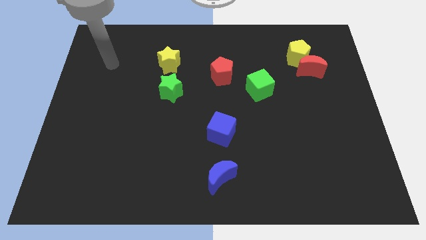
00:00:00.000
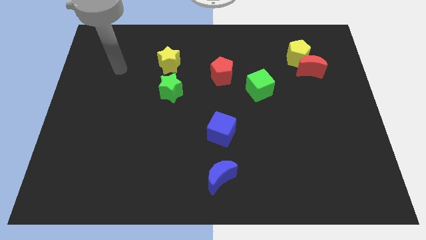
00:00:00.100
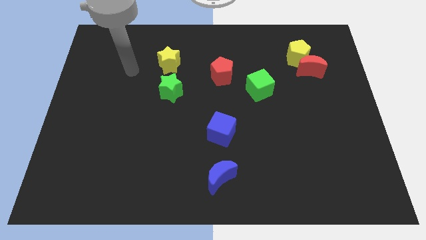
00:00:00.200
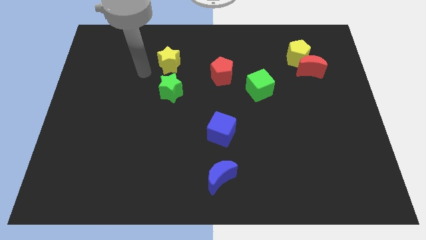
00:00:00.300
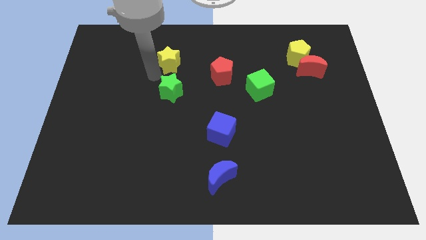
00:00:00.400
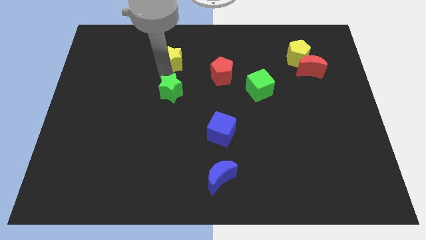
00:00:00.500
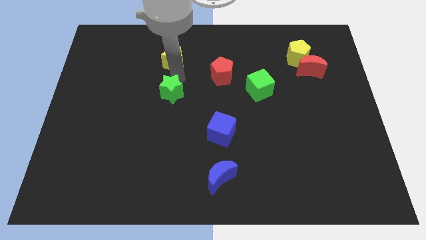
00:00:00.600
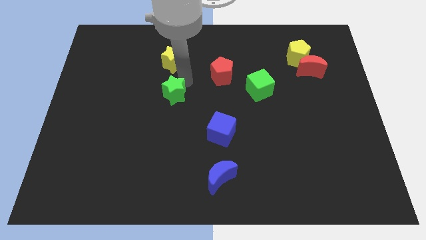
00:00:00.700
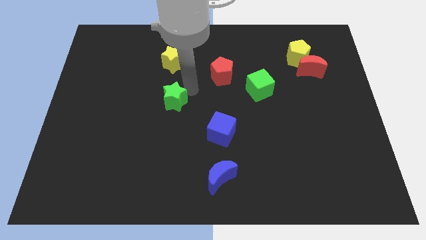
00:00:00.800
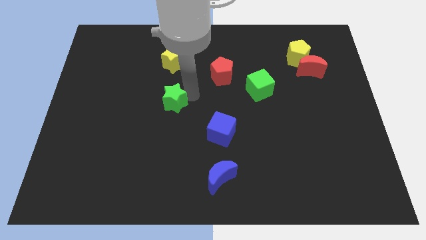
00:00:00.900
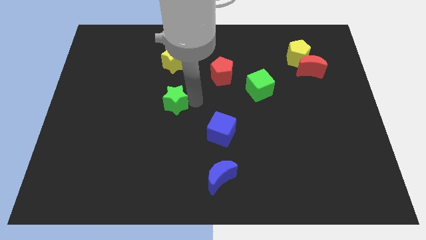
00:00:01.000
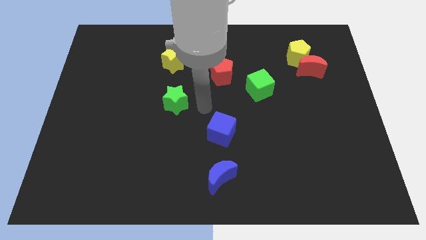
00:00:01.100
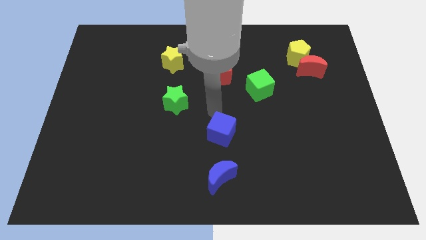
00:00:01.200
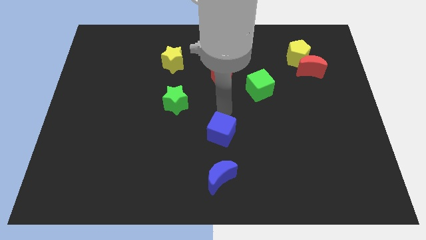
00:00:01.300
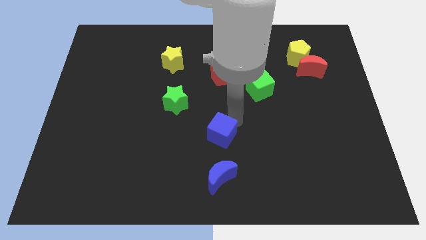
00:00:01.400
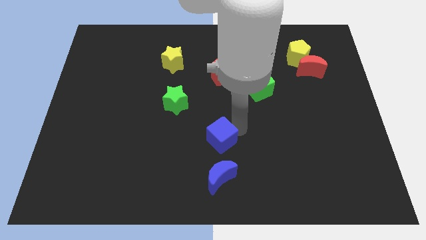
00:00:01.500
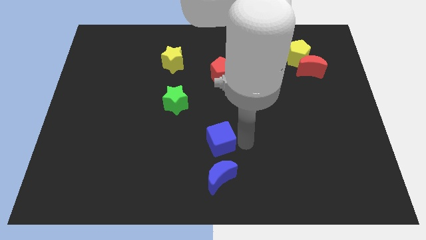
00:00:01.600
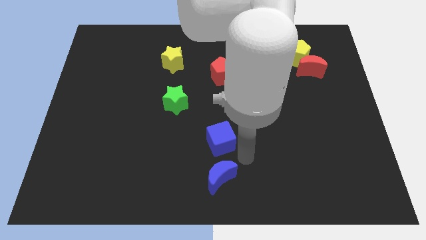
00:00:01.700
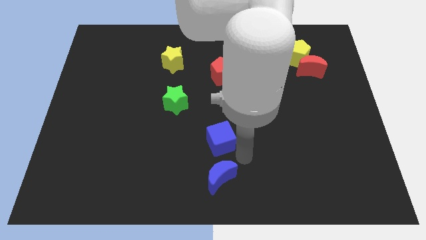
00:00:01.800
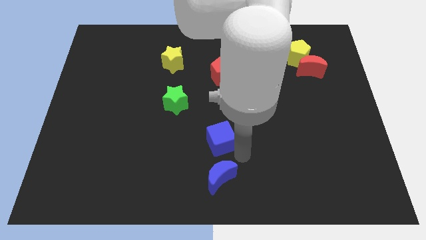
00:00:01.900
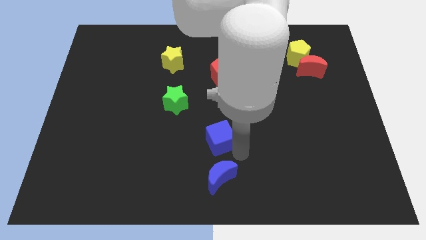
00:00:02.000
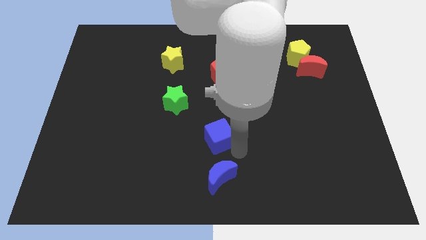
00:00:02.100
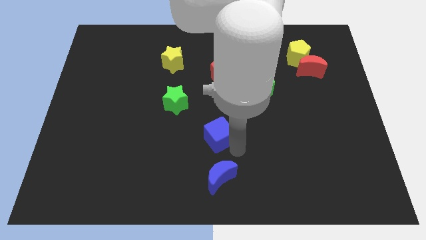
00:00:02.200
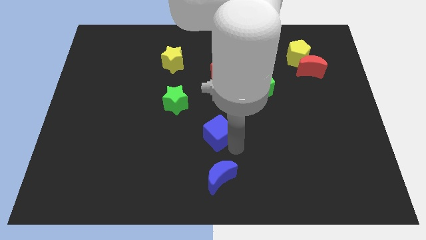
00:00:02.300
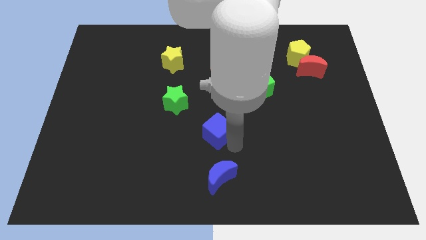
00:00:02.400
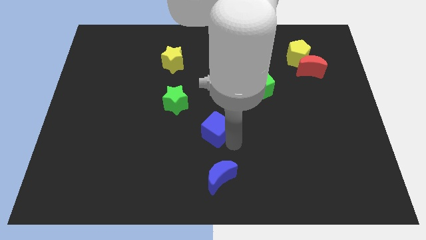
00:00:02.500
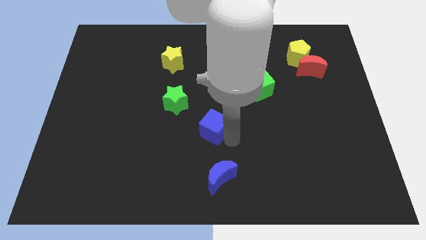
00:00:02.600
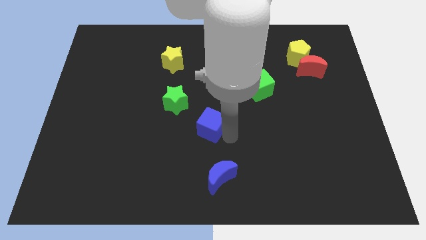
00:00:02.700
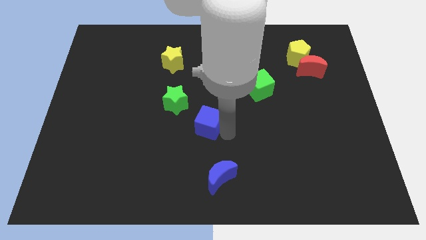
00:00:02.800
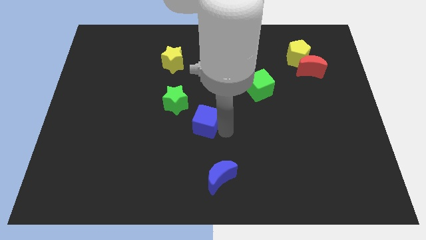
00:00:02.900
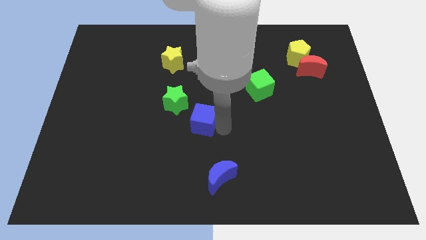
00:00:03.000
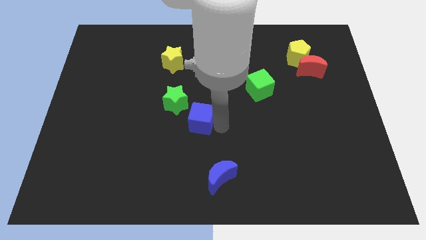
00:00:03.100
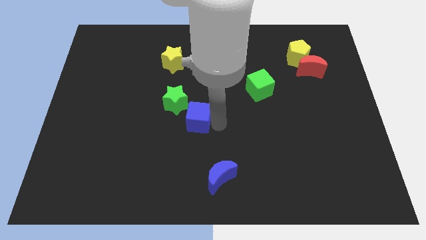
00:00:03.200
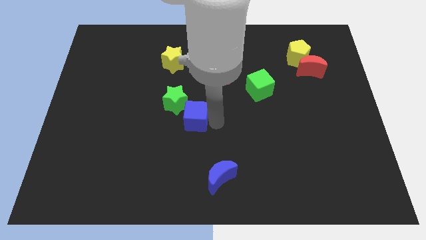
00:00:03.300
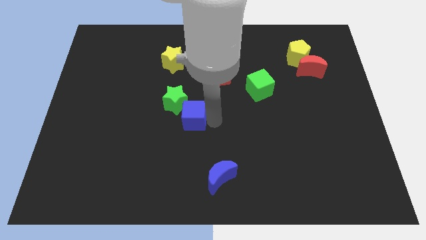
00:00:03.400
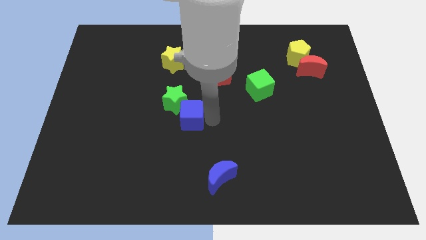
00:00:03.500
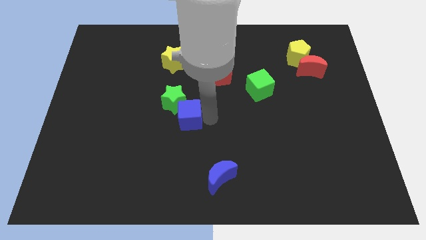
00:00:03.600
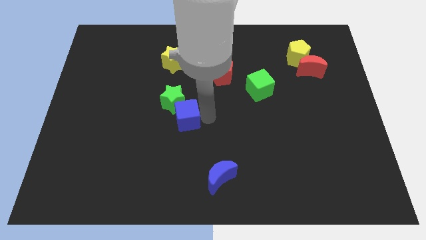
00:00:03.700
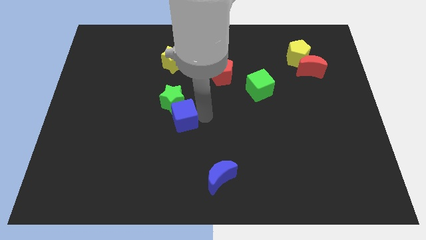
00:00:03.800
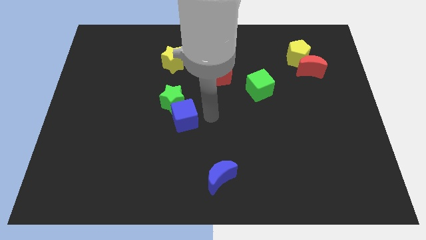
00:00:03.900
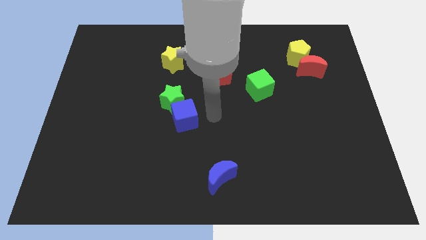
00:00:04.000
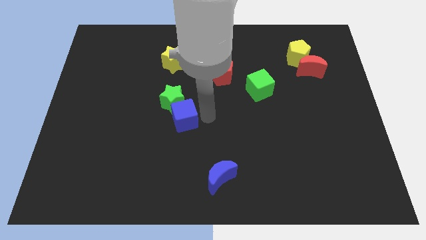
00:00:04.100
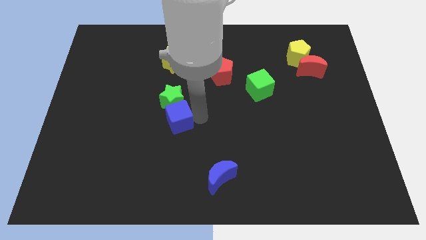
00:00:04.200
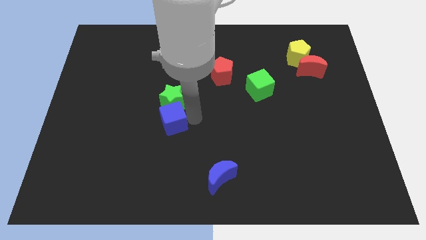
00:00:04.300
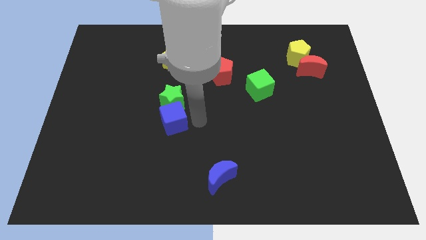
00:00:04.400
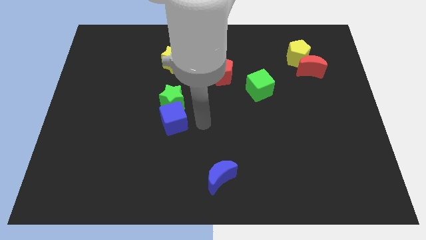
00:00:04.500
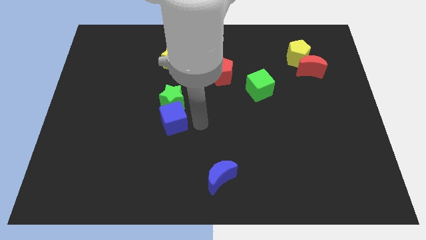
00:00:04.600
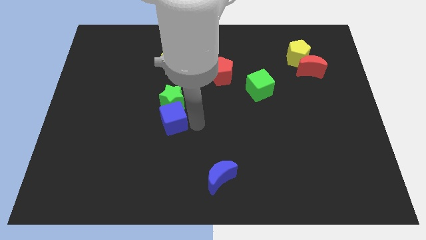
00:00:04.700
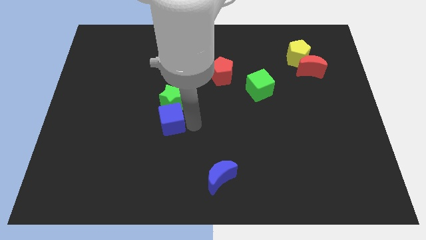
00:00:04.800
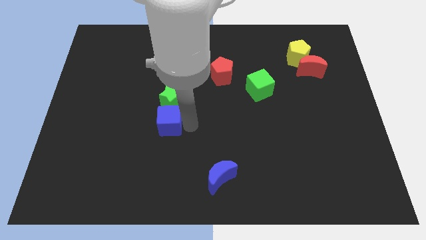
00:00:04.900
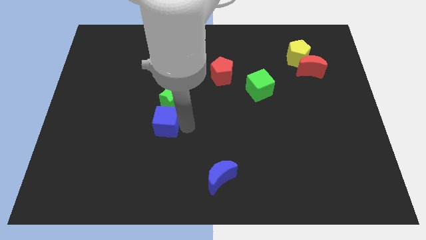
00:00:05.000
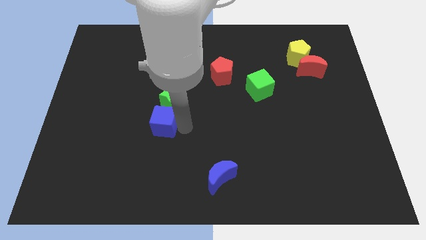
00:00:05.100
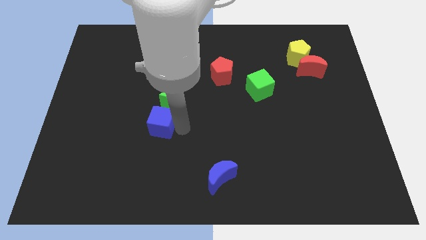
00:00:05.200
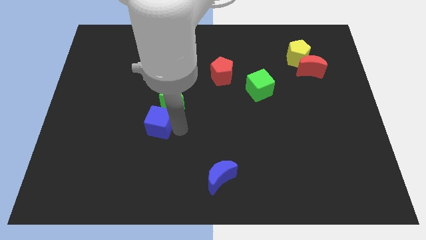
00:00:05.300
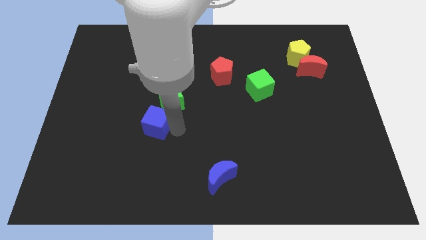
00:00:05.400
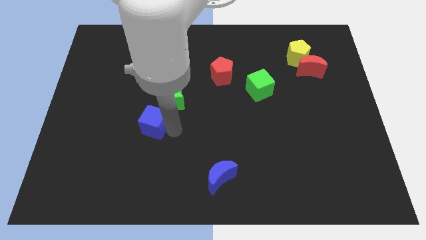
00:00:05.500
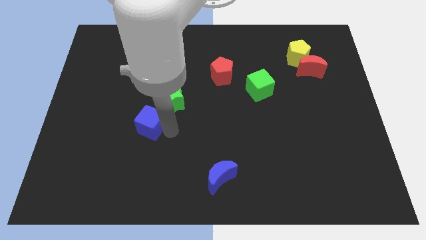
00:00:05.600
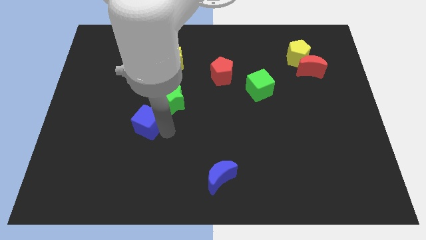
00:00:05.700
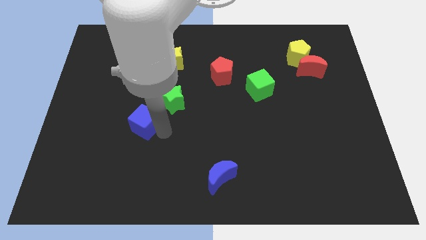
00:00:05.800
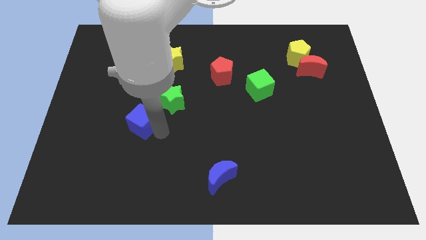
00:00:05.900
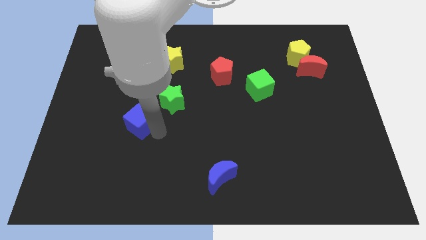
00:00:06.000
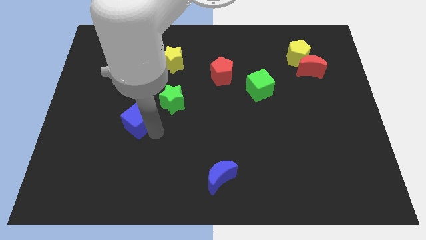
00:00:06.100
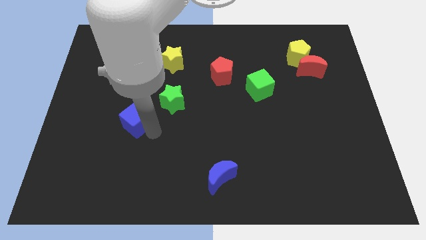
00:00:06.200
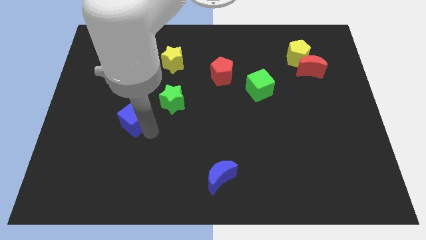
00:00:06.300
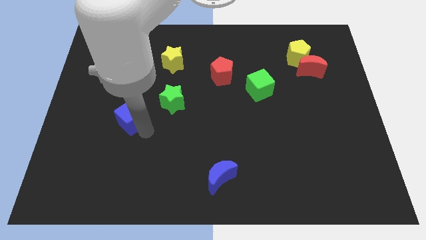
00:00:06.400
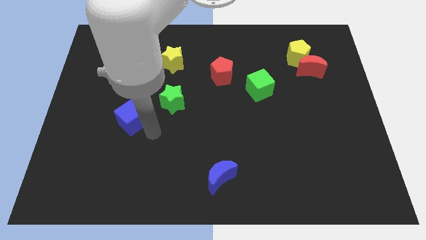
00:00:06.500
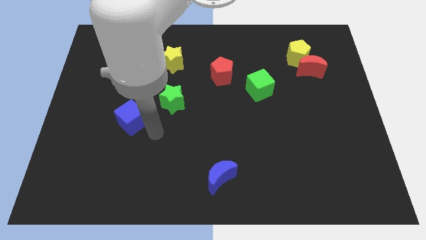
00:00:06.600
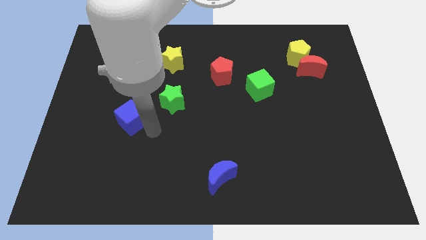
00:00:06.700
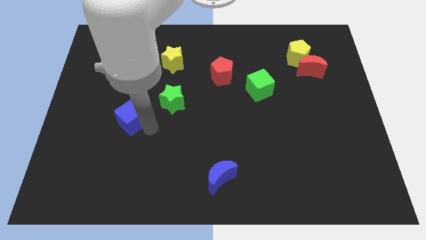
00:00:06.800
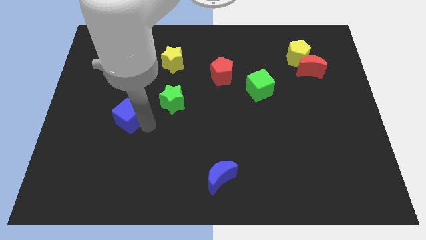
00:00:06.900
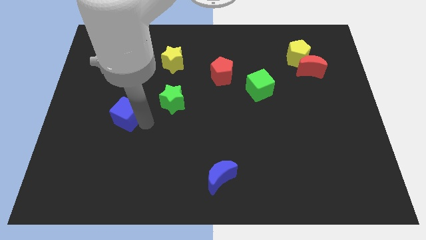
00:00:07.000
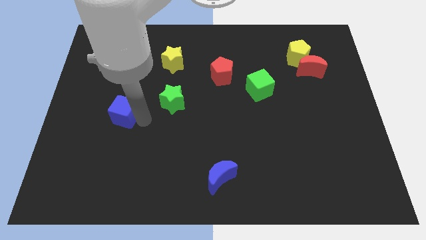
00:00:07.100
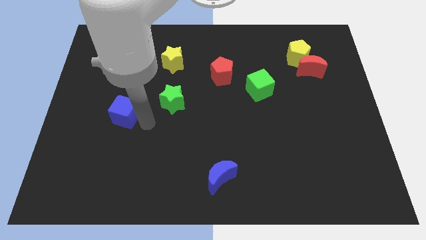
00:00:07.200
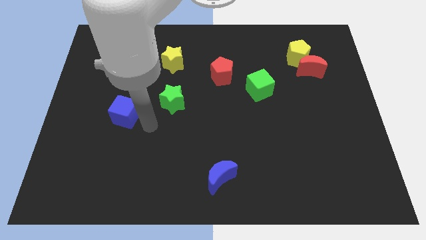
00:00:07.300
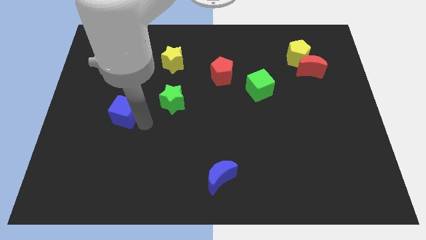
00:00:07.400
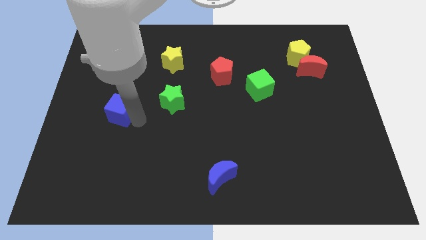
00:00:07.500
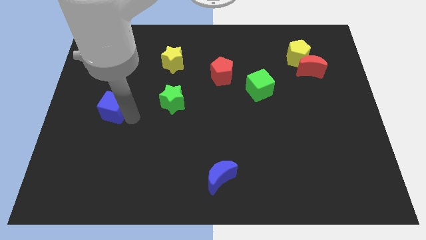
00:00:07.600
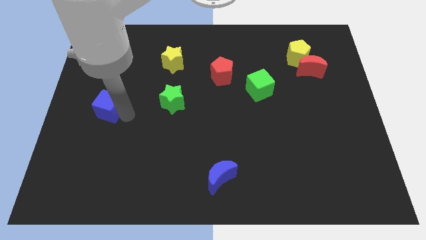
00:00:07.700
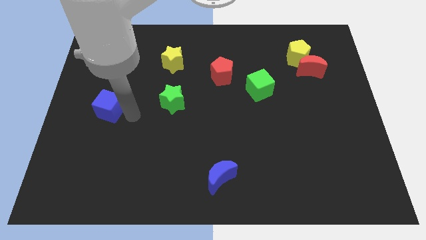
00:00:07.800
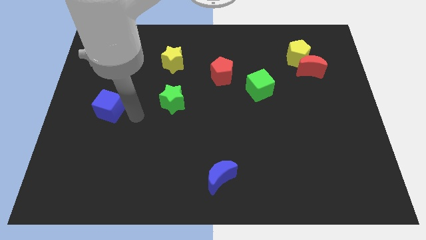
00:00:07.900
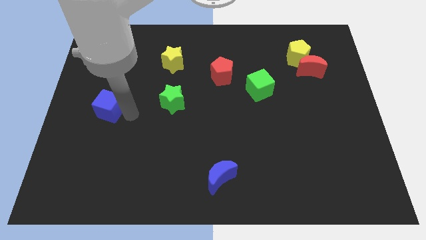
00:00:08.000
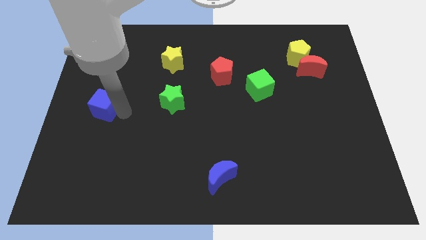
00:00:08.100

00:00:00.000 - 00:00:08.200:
slide the blue cube to the left side
